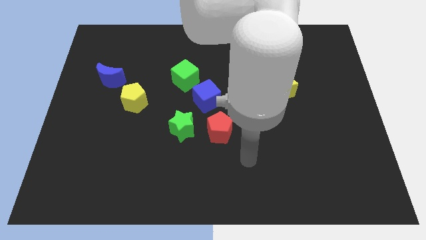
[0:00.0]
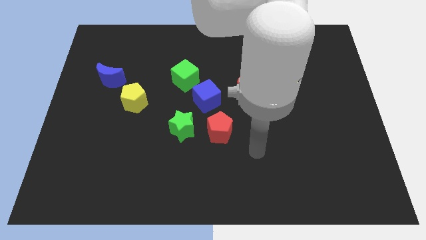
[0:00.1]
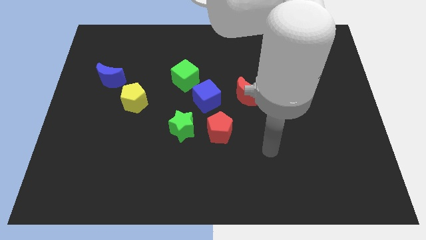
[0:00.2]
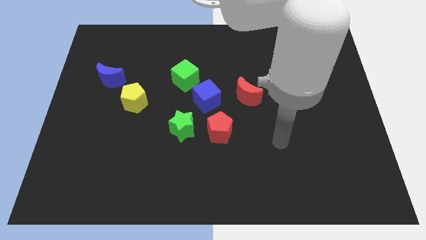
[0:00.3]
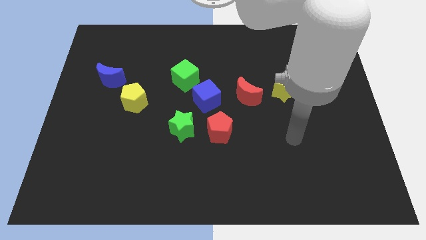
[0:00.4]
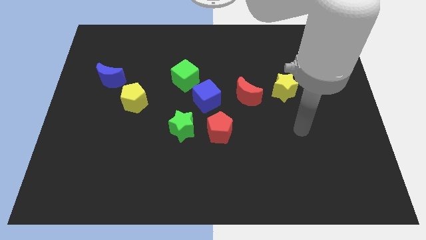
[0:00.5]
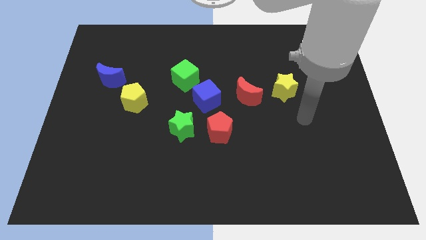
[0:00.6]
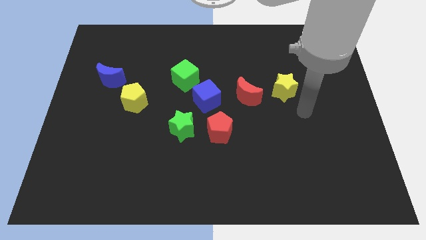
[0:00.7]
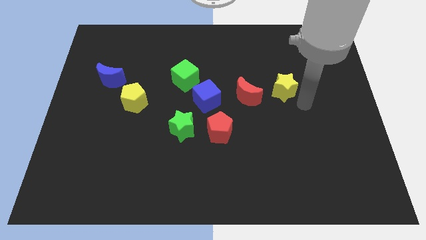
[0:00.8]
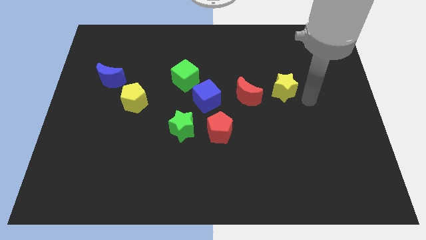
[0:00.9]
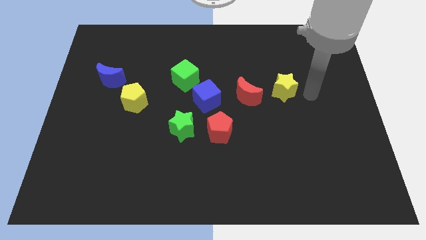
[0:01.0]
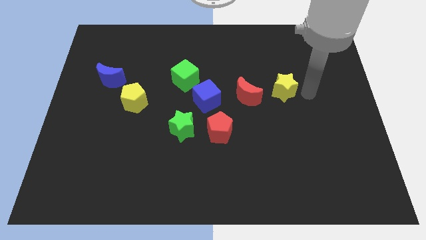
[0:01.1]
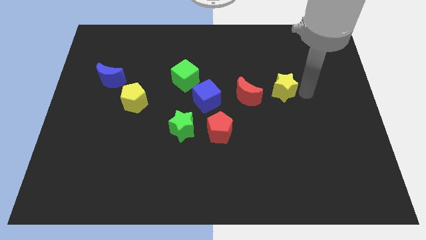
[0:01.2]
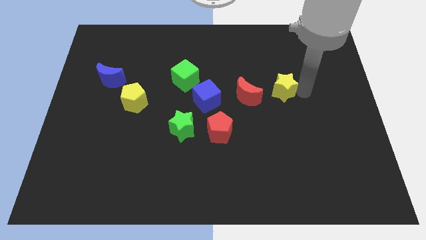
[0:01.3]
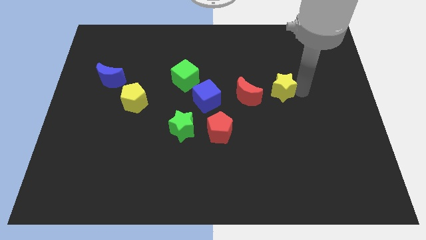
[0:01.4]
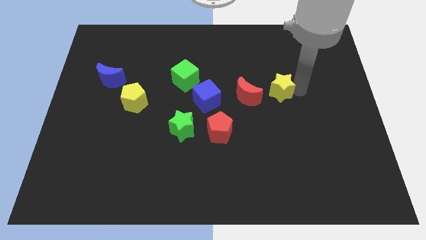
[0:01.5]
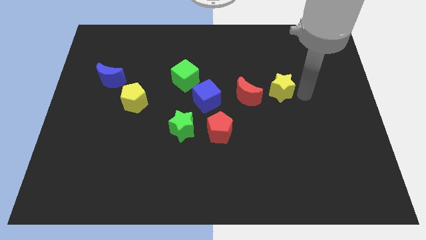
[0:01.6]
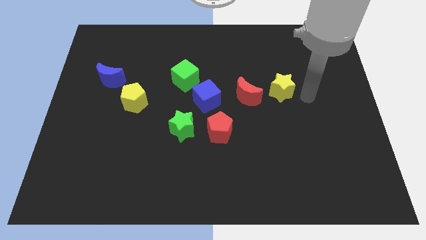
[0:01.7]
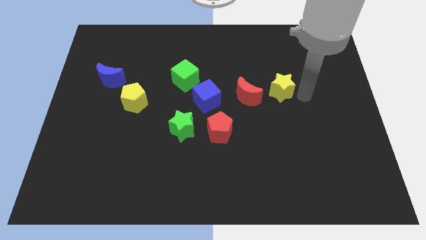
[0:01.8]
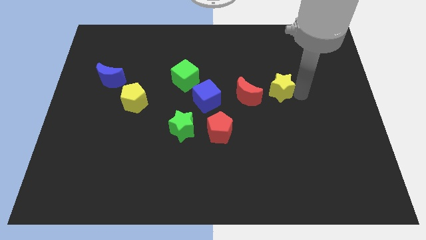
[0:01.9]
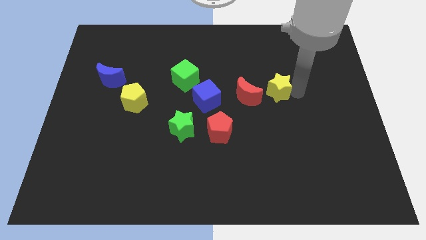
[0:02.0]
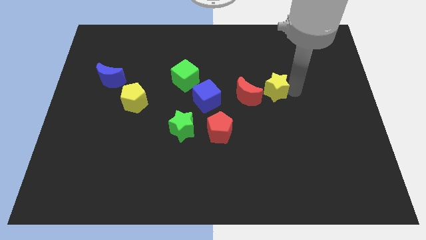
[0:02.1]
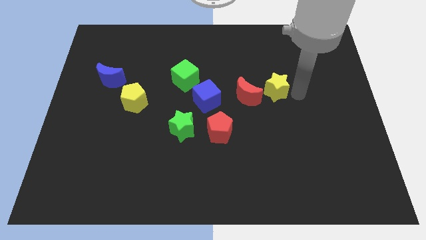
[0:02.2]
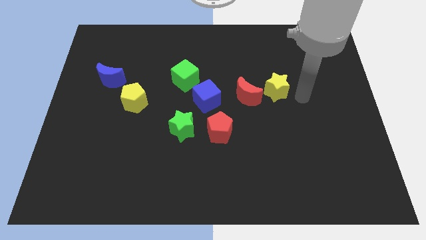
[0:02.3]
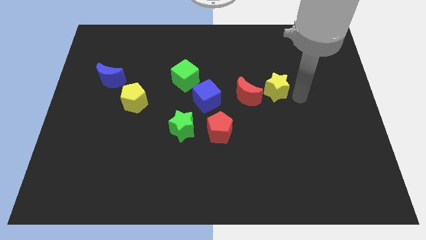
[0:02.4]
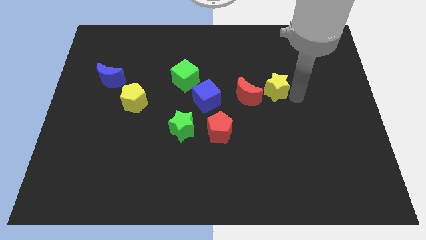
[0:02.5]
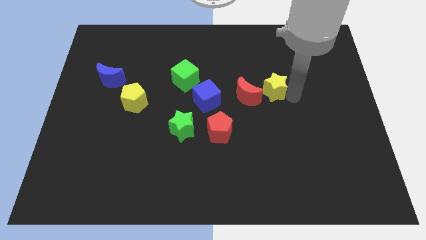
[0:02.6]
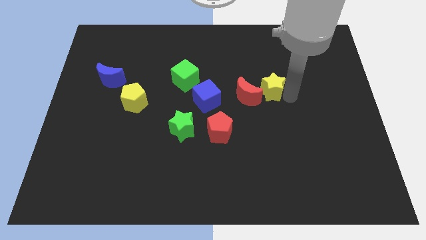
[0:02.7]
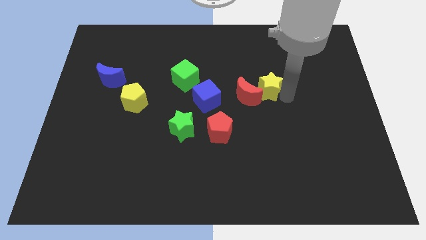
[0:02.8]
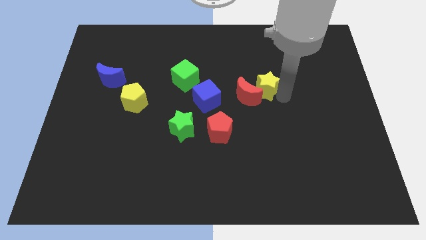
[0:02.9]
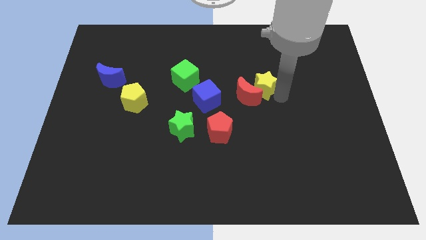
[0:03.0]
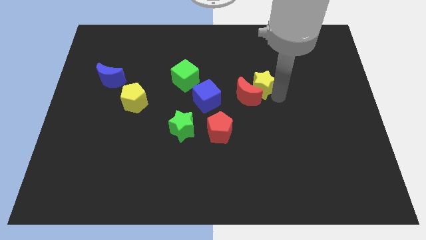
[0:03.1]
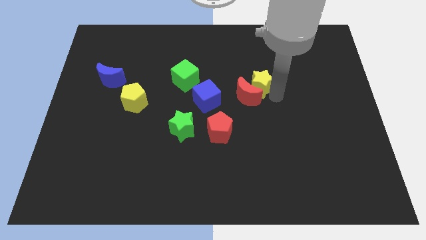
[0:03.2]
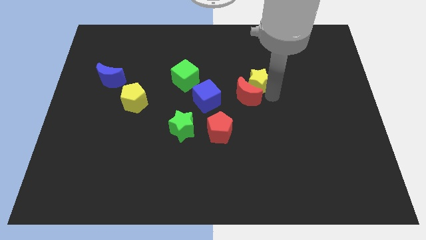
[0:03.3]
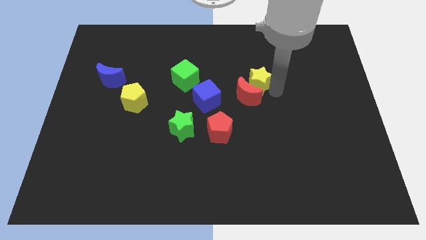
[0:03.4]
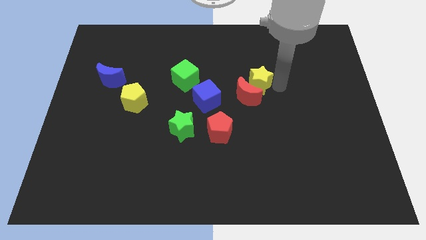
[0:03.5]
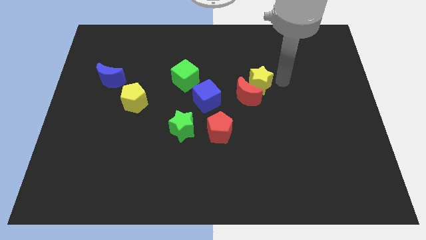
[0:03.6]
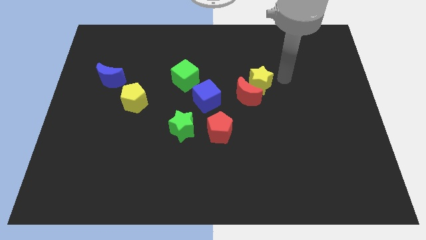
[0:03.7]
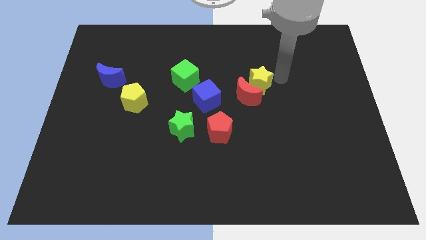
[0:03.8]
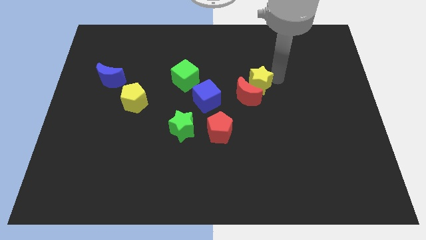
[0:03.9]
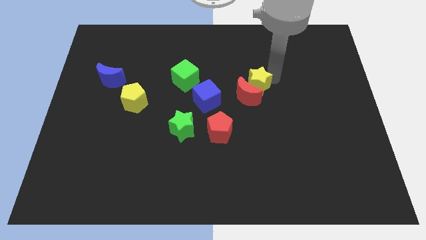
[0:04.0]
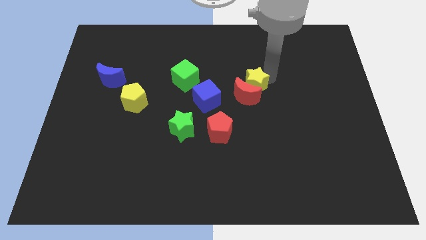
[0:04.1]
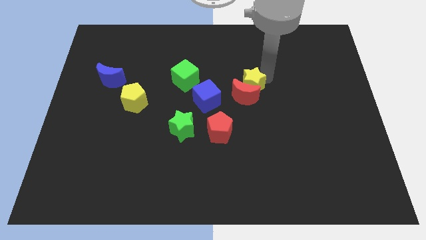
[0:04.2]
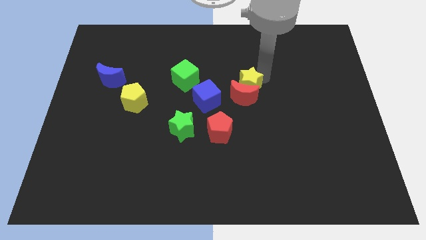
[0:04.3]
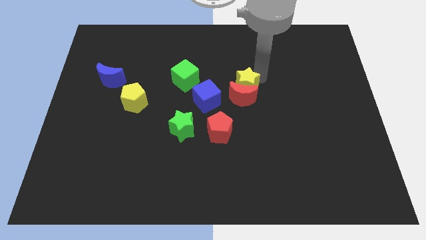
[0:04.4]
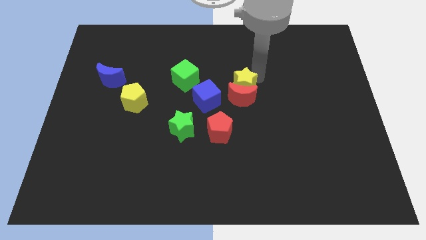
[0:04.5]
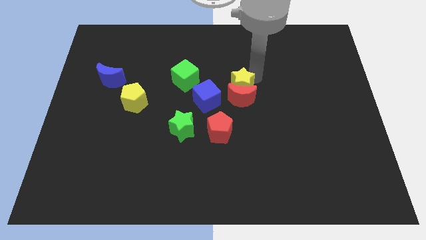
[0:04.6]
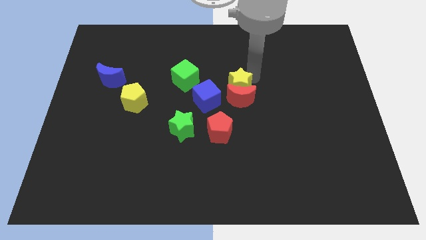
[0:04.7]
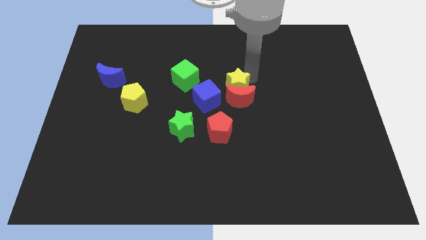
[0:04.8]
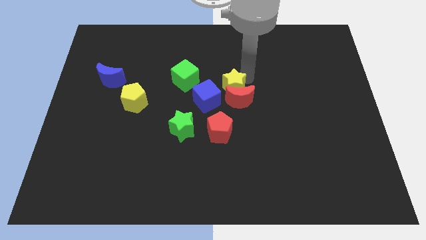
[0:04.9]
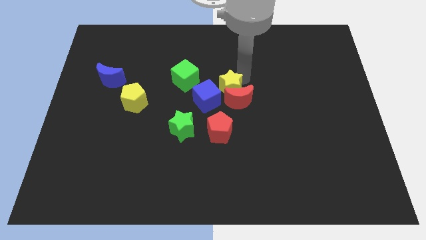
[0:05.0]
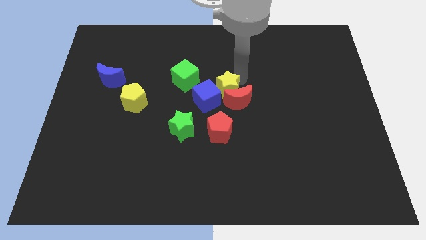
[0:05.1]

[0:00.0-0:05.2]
move the yellow star next to the blue cube
